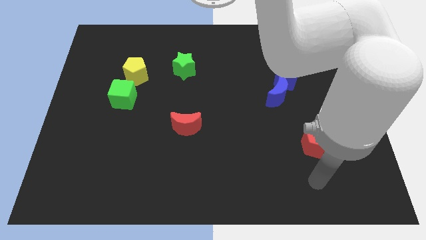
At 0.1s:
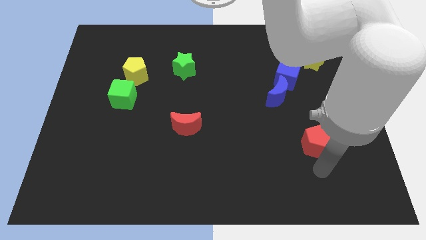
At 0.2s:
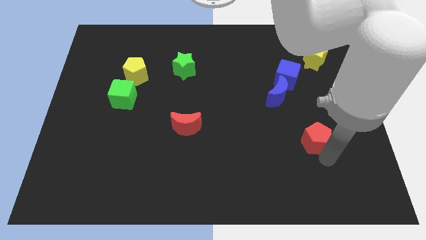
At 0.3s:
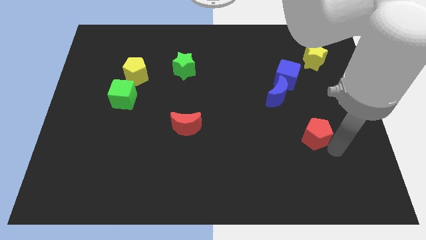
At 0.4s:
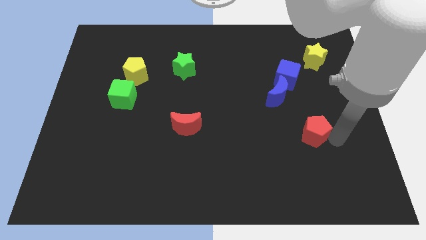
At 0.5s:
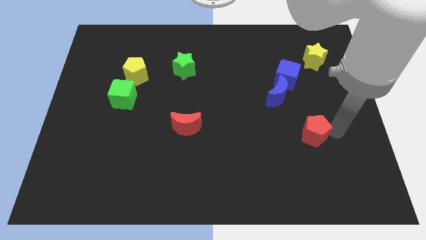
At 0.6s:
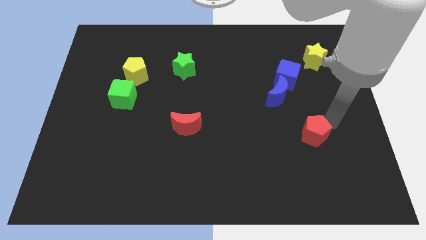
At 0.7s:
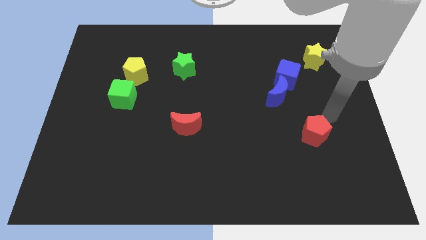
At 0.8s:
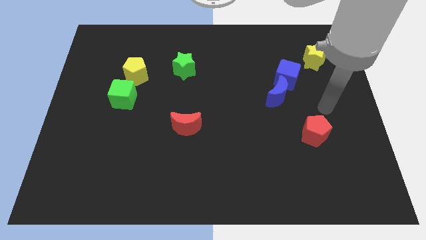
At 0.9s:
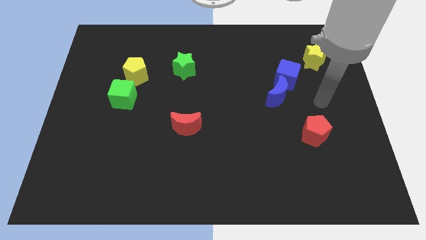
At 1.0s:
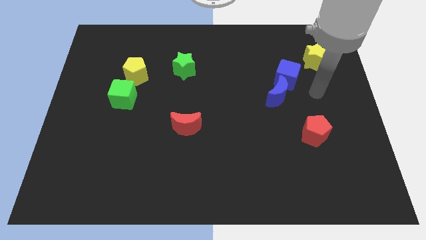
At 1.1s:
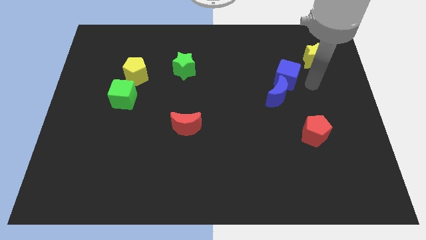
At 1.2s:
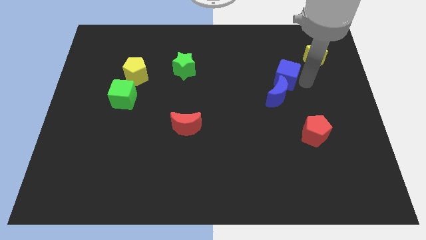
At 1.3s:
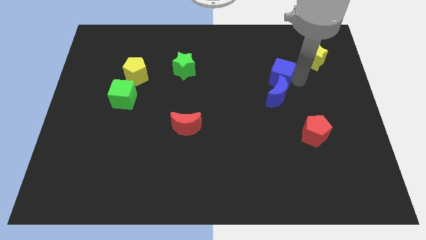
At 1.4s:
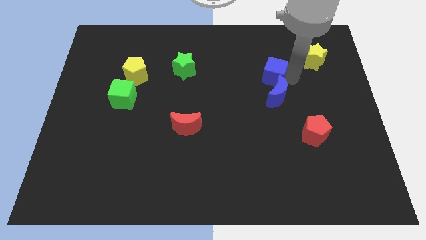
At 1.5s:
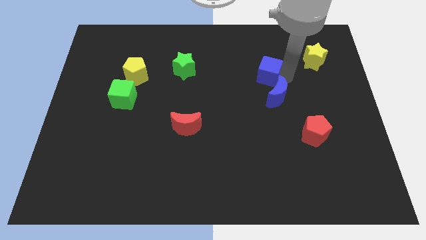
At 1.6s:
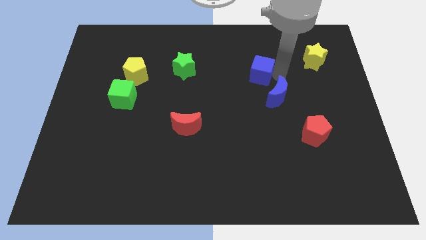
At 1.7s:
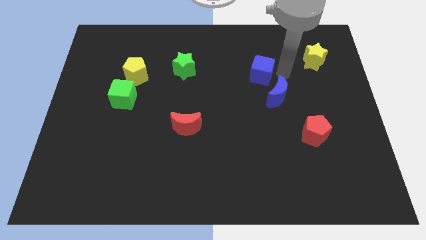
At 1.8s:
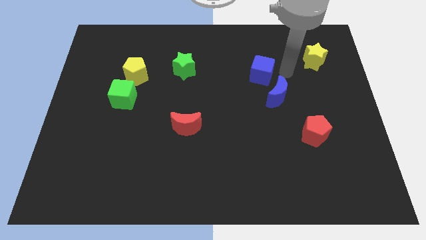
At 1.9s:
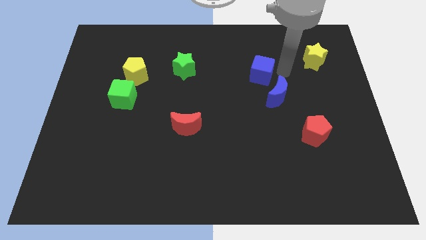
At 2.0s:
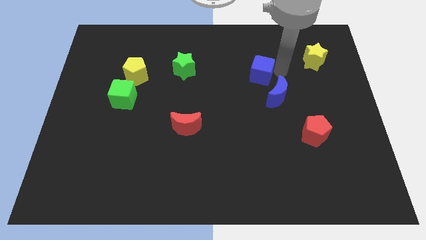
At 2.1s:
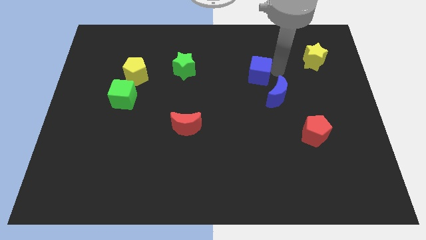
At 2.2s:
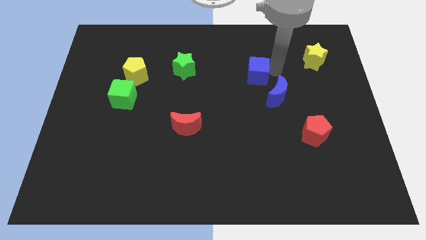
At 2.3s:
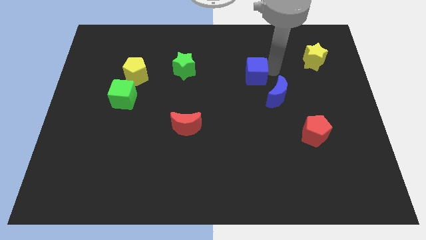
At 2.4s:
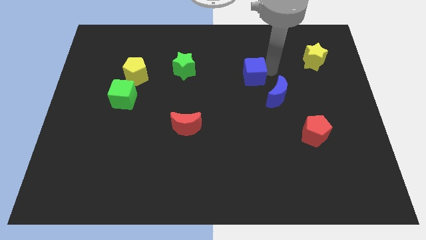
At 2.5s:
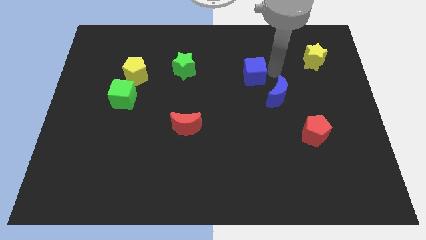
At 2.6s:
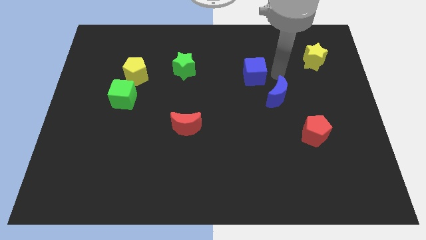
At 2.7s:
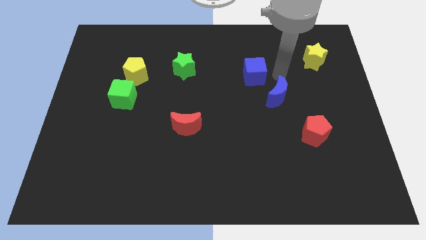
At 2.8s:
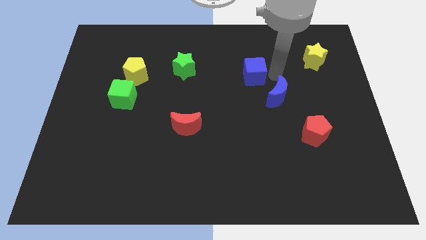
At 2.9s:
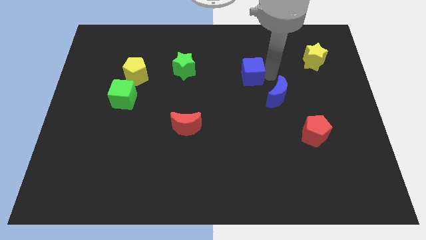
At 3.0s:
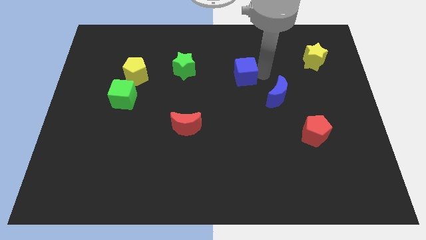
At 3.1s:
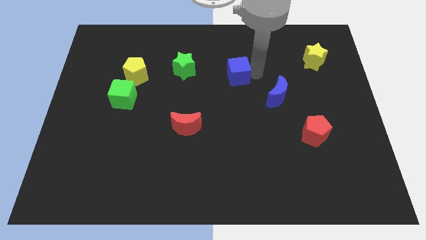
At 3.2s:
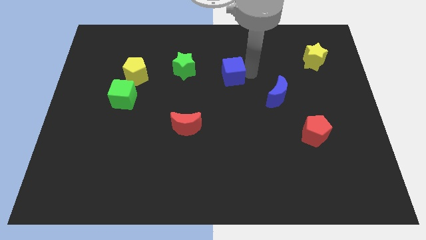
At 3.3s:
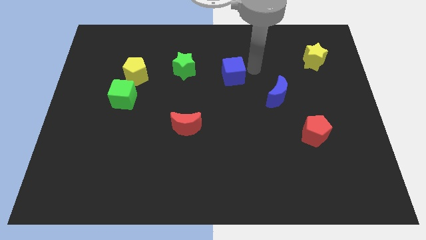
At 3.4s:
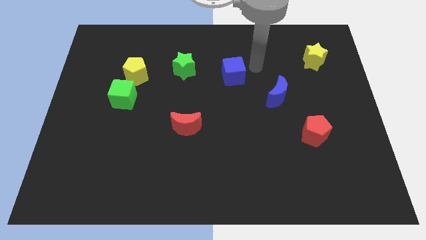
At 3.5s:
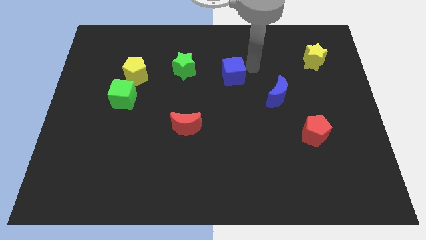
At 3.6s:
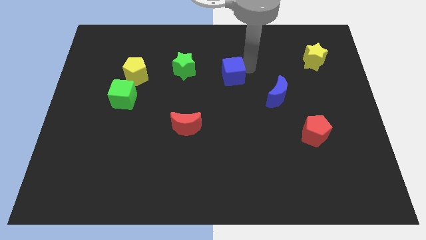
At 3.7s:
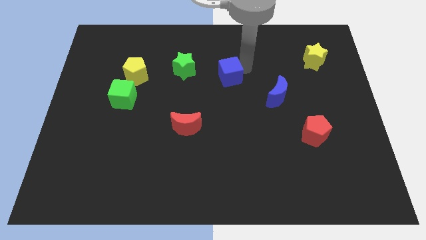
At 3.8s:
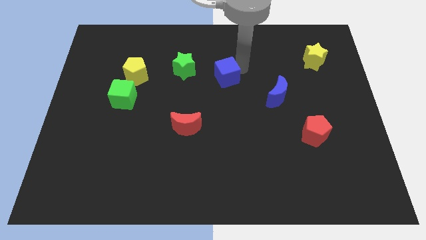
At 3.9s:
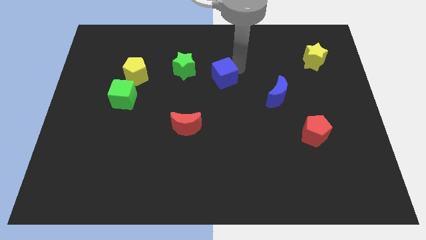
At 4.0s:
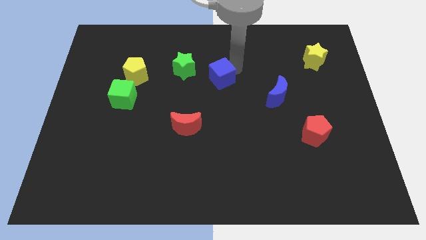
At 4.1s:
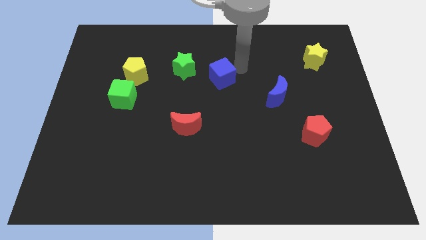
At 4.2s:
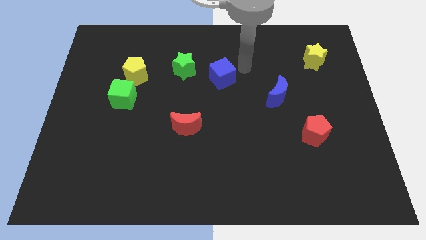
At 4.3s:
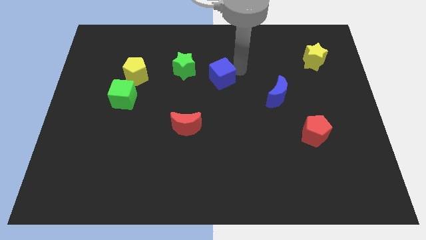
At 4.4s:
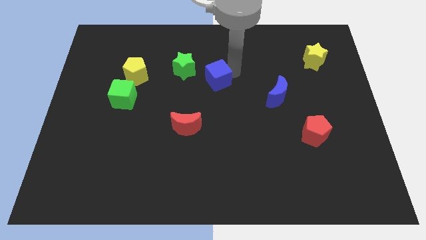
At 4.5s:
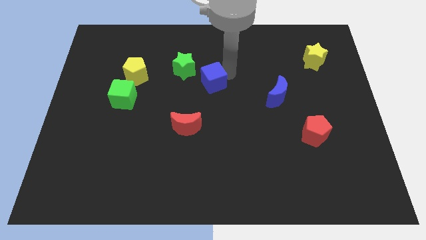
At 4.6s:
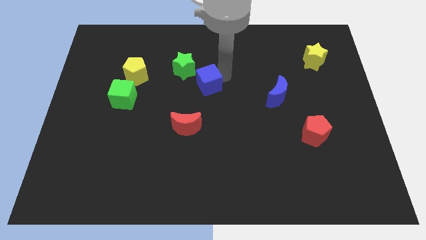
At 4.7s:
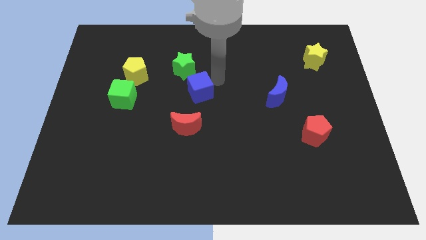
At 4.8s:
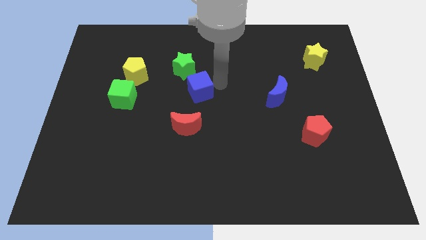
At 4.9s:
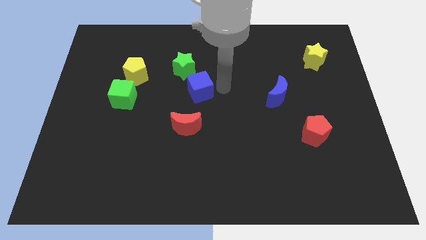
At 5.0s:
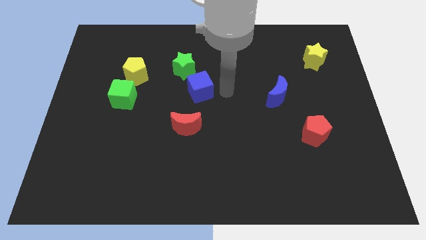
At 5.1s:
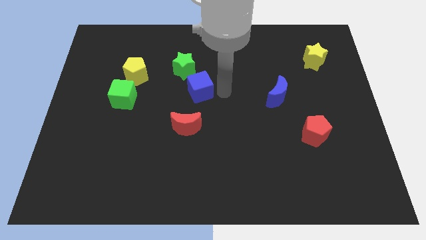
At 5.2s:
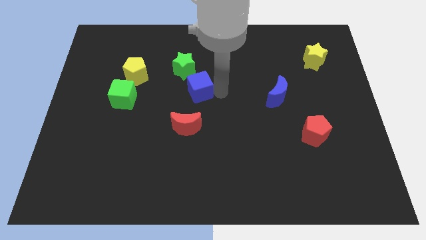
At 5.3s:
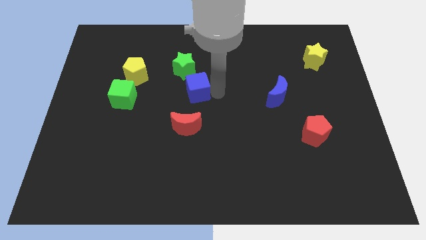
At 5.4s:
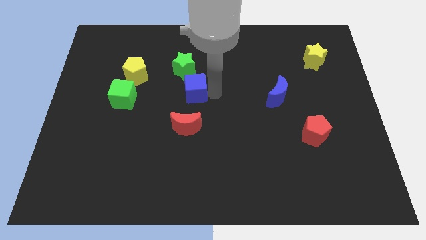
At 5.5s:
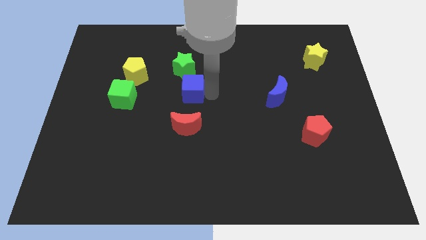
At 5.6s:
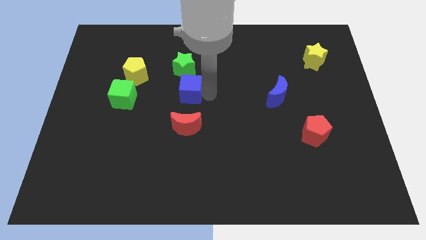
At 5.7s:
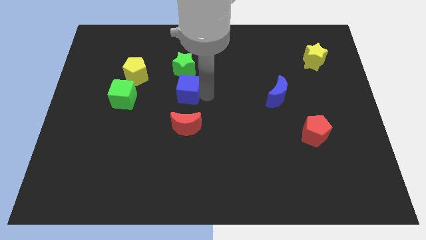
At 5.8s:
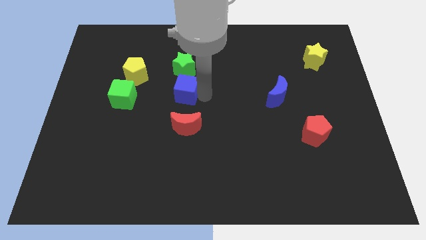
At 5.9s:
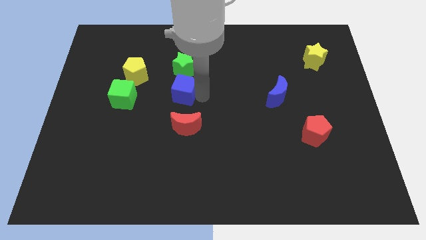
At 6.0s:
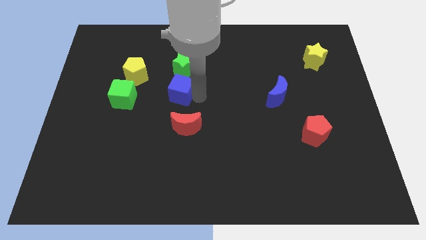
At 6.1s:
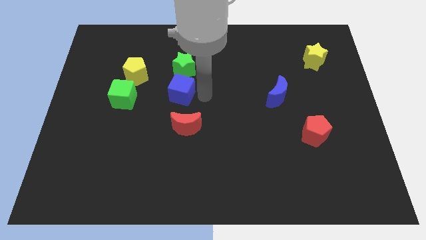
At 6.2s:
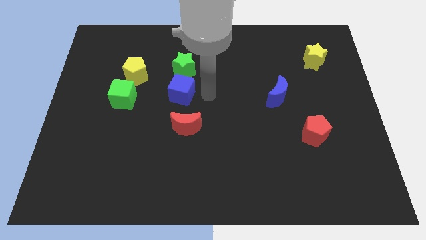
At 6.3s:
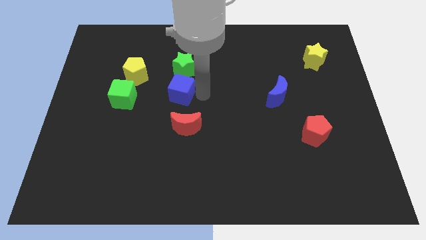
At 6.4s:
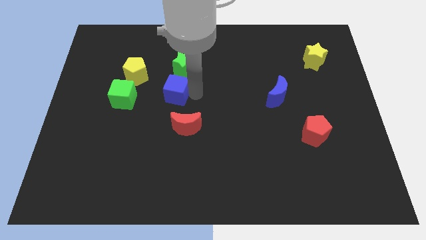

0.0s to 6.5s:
push the blue cube to the bottom right of the yellow pentagon

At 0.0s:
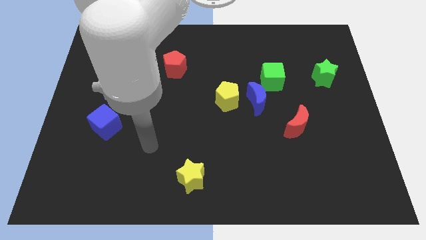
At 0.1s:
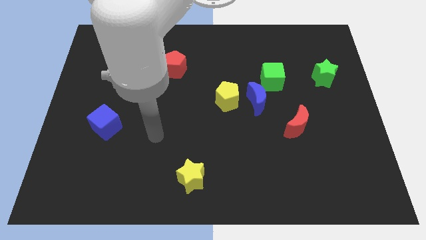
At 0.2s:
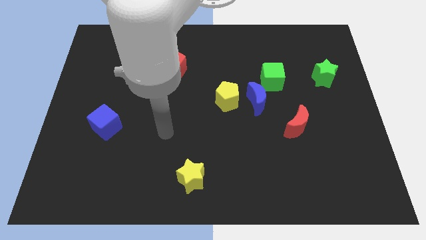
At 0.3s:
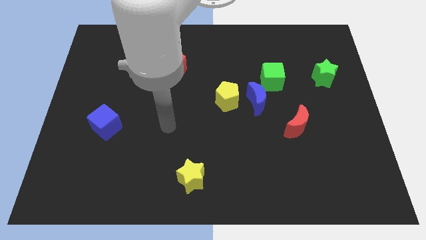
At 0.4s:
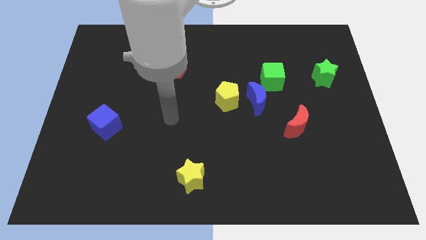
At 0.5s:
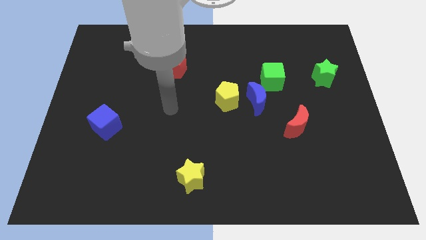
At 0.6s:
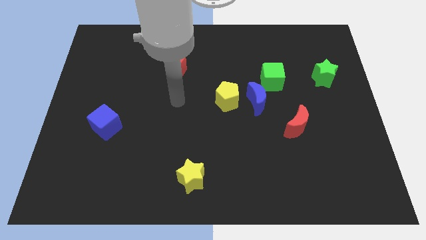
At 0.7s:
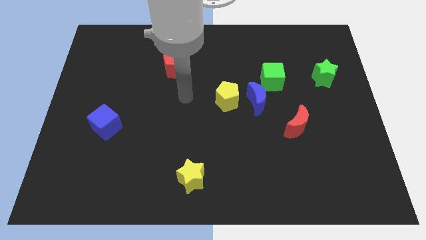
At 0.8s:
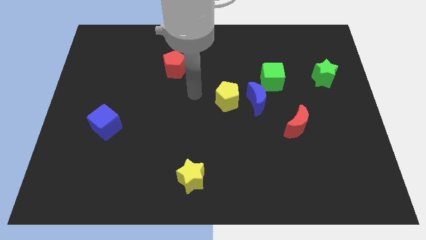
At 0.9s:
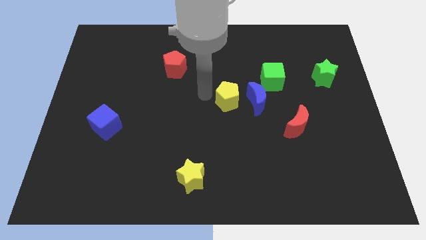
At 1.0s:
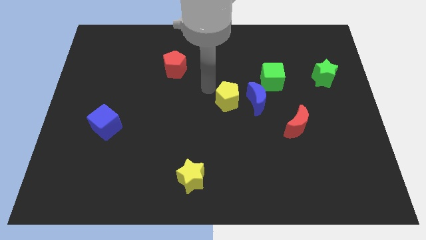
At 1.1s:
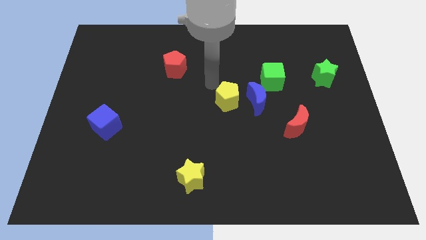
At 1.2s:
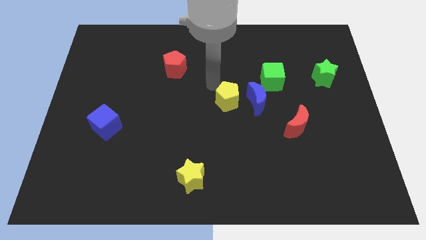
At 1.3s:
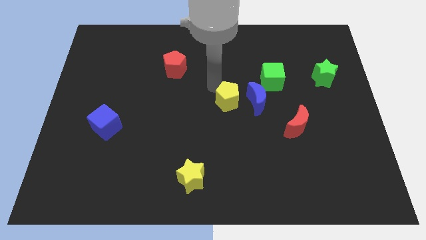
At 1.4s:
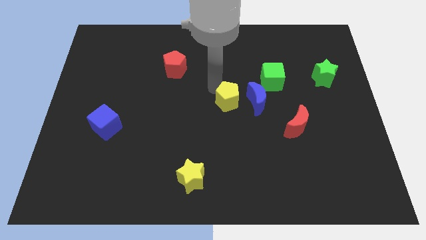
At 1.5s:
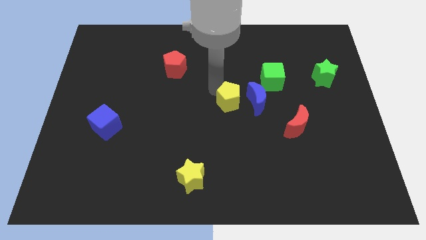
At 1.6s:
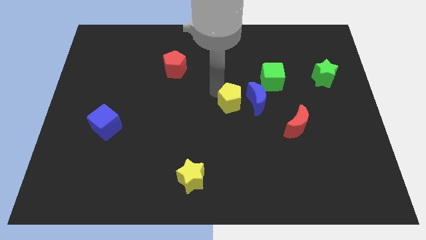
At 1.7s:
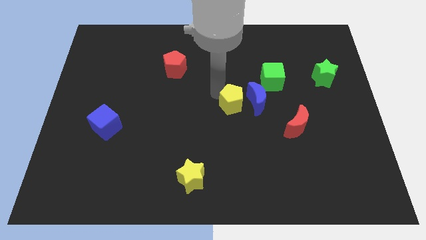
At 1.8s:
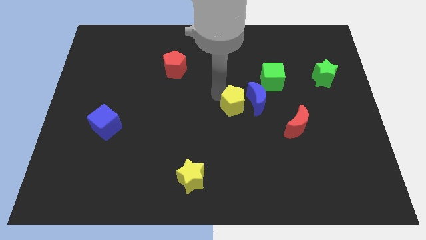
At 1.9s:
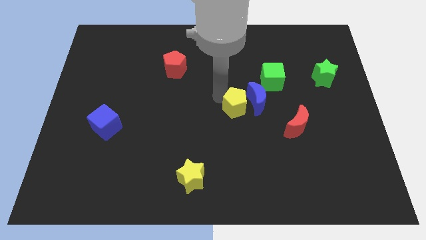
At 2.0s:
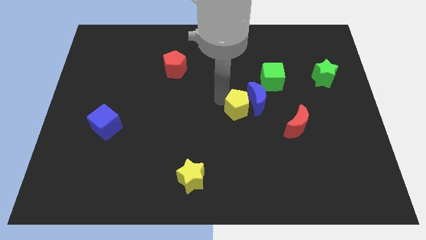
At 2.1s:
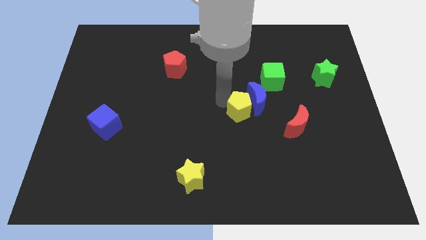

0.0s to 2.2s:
slide the yellow pentagon to the bottom of the blue moon
